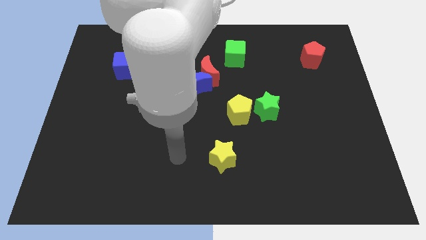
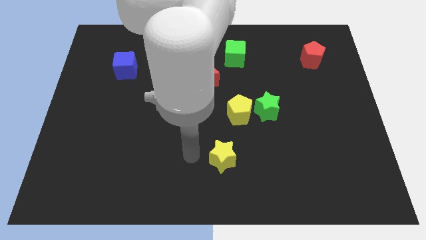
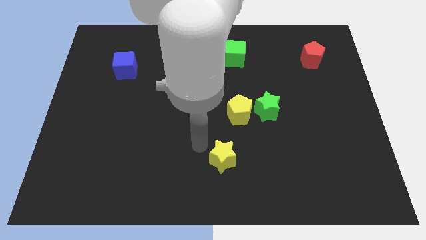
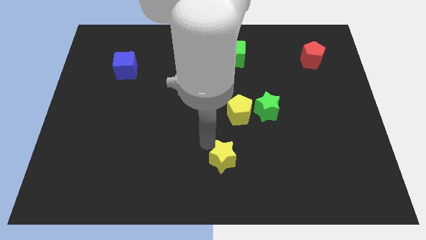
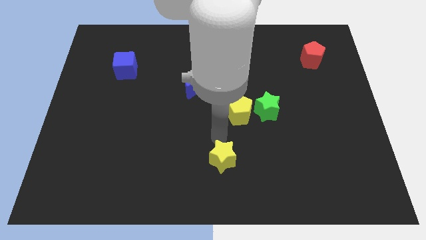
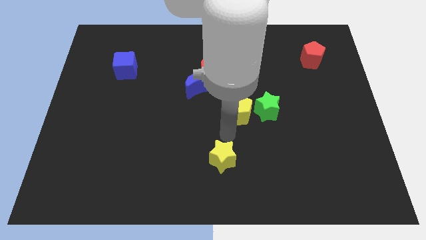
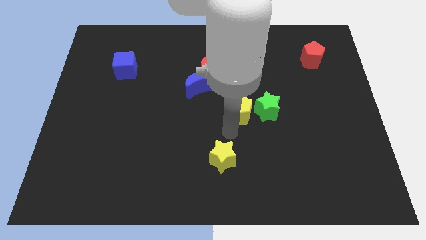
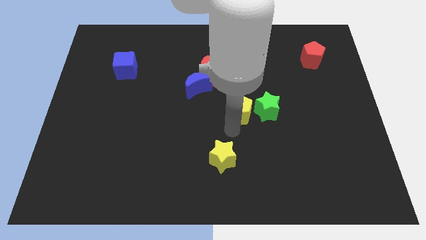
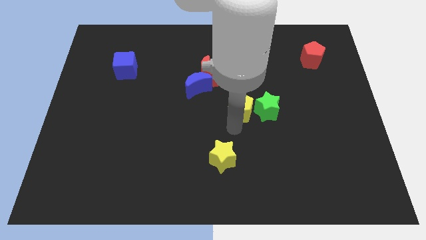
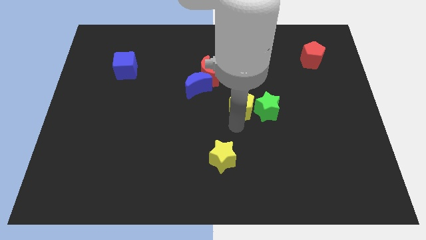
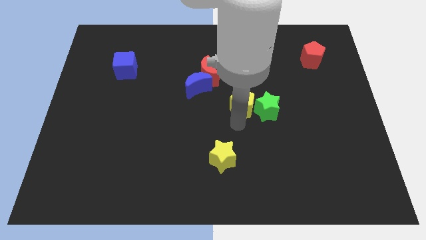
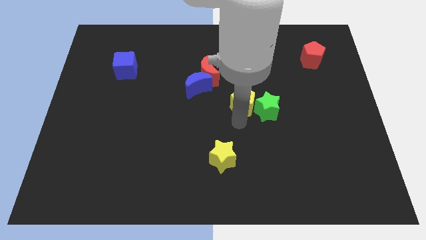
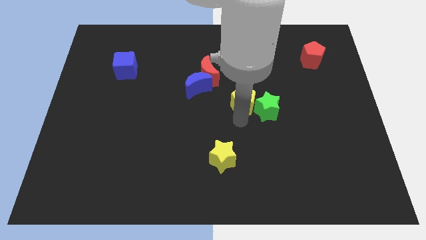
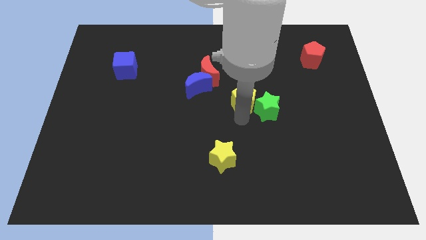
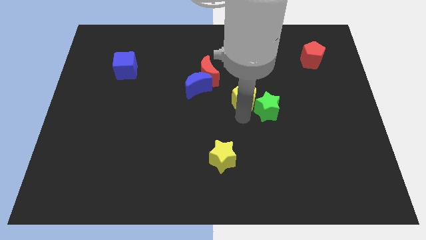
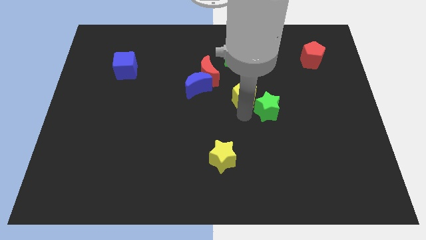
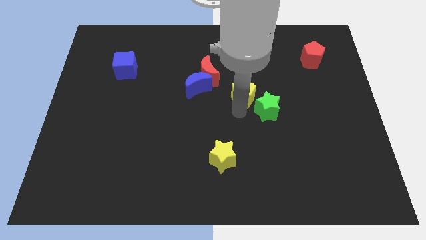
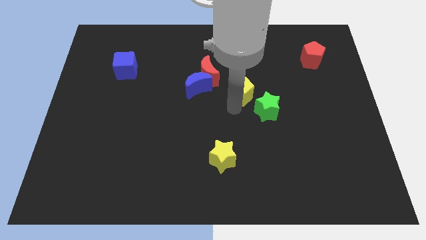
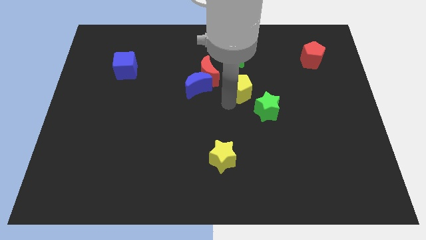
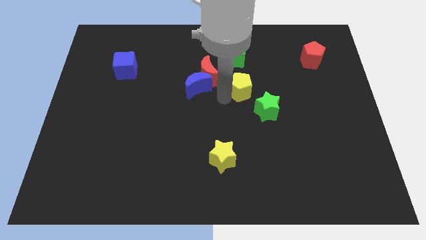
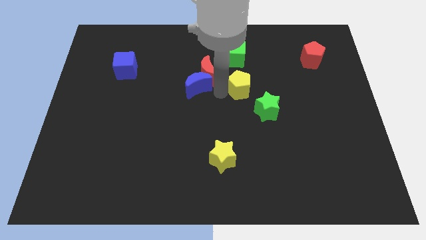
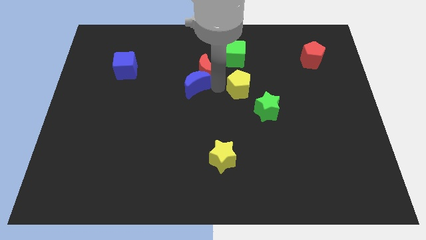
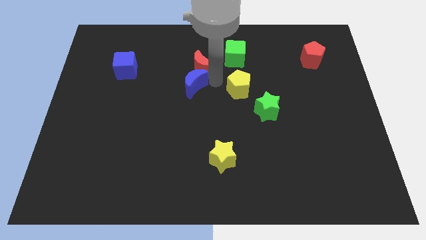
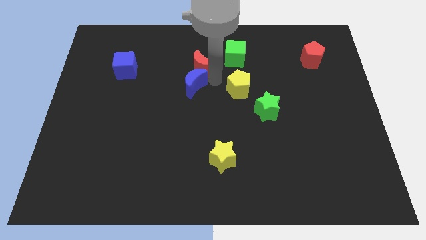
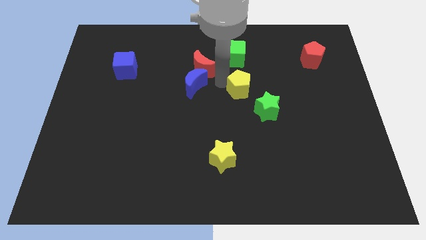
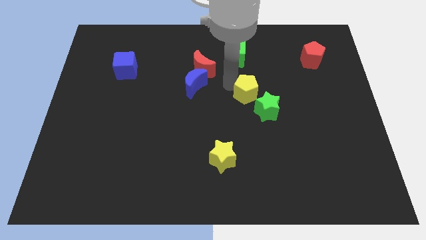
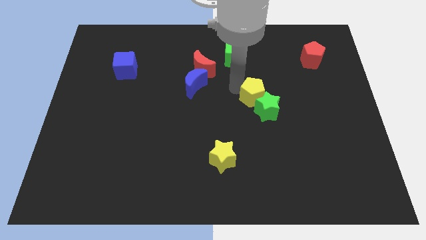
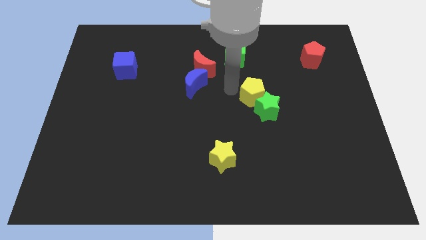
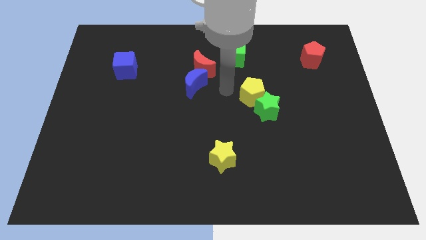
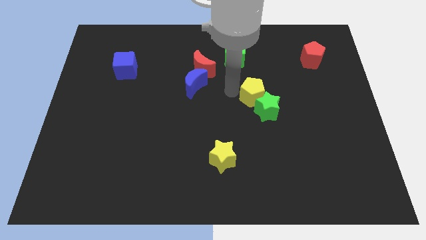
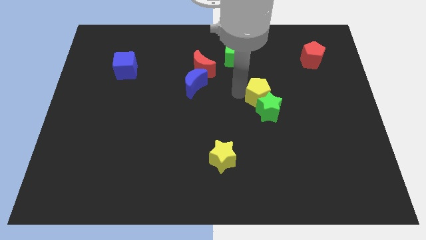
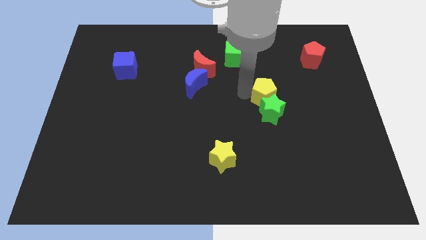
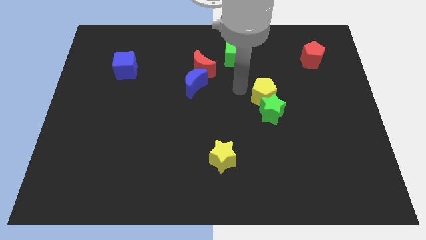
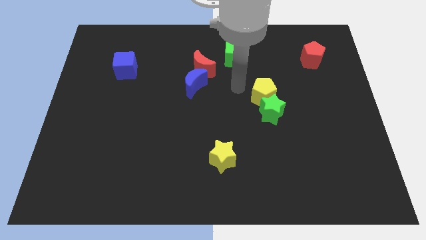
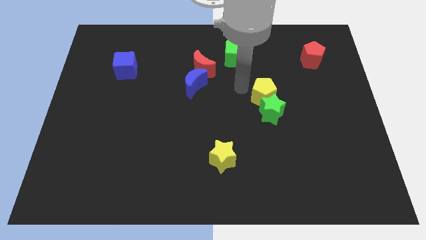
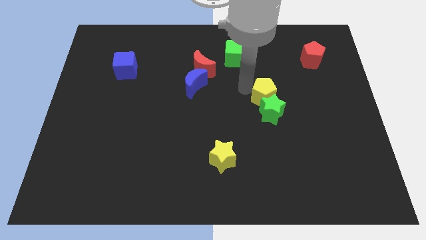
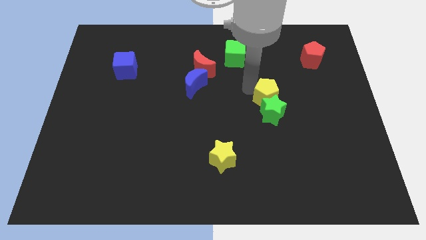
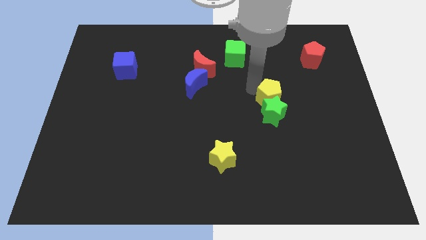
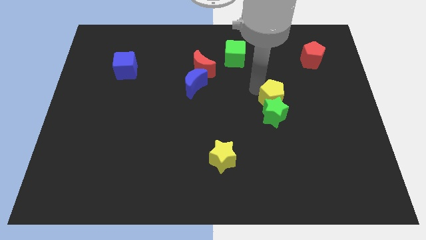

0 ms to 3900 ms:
slide the yellow pentagon a little bit right

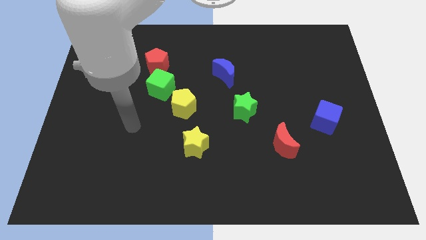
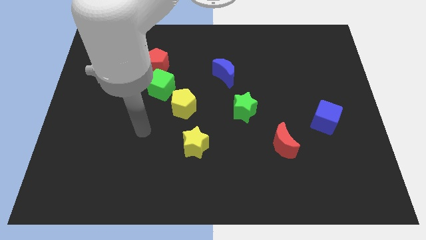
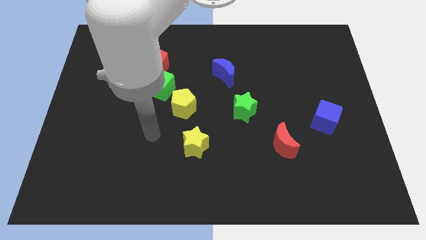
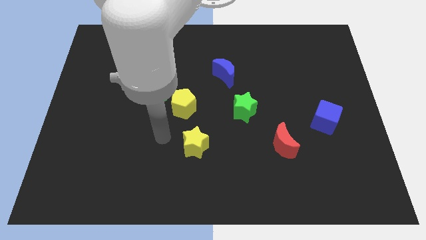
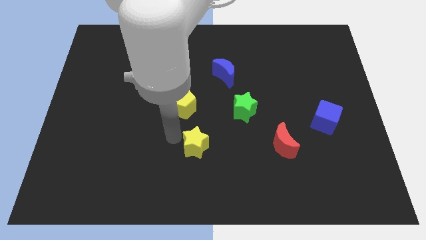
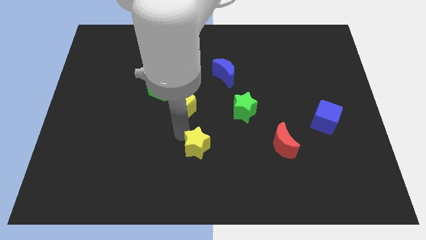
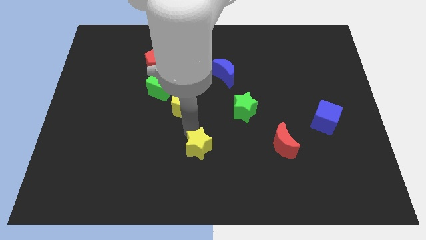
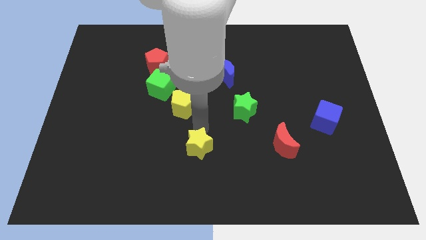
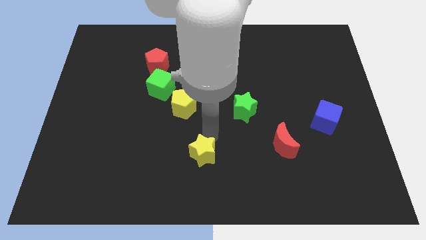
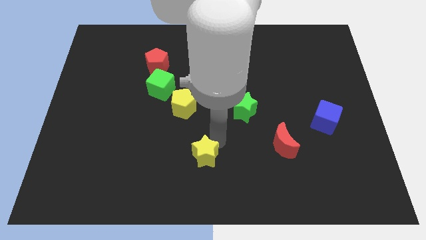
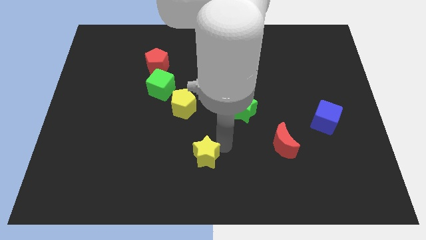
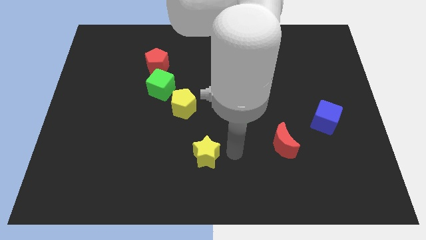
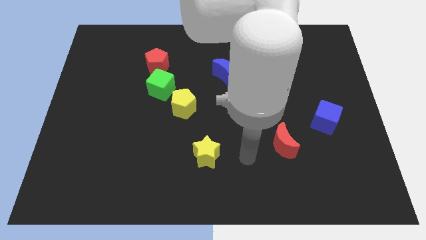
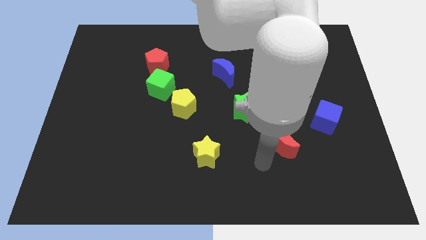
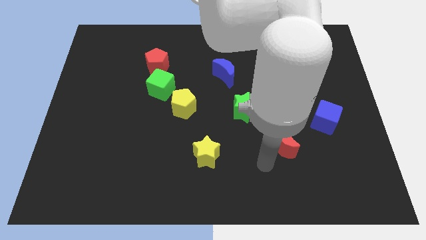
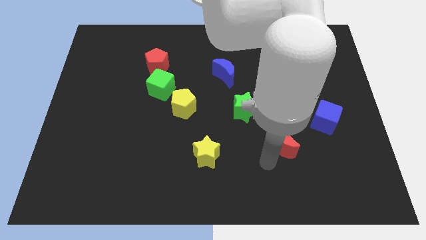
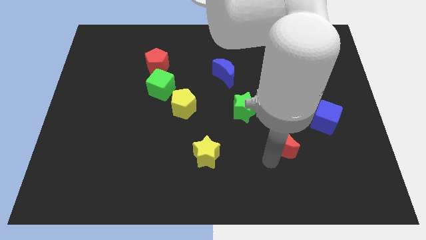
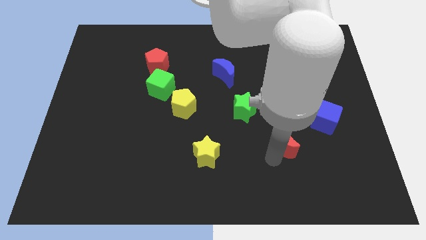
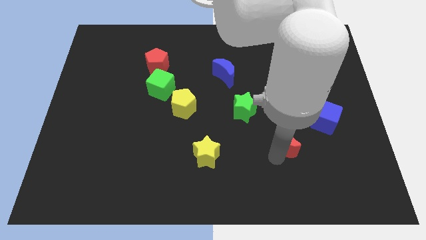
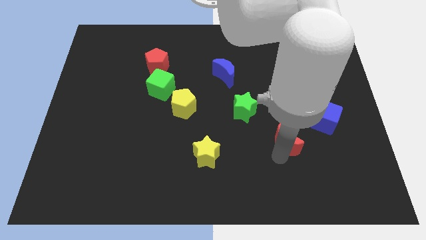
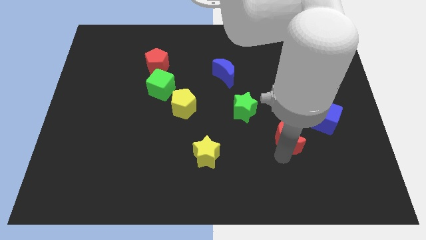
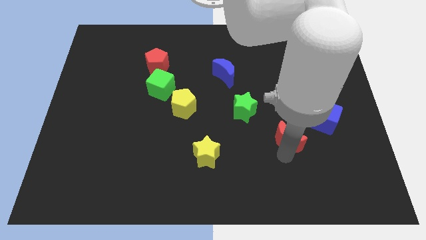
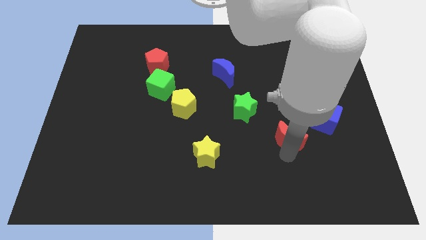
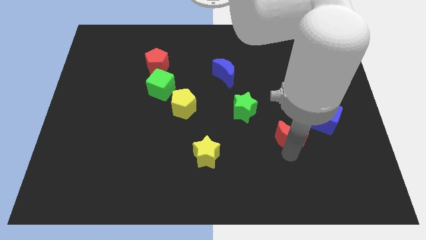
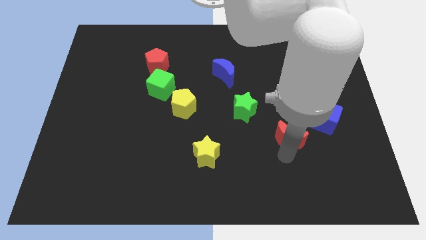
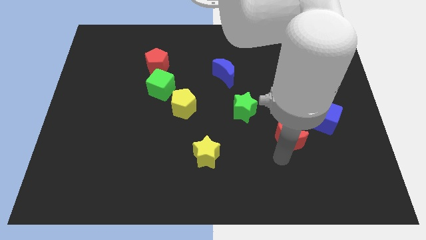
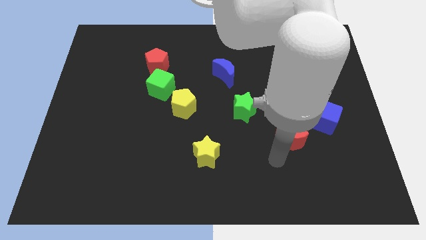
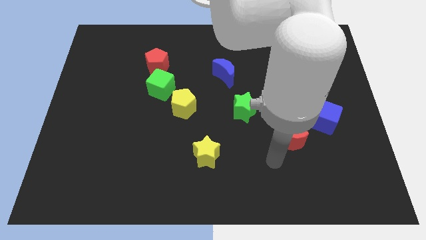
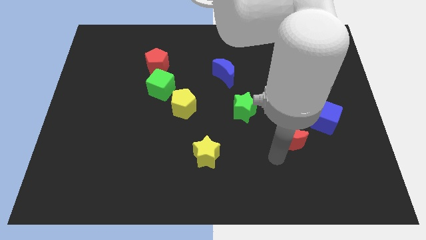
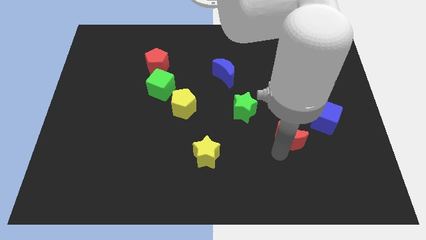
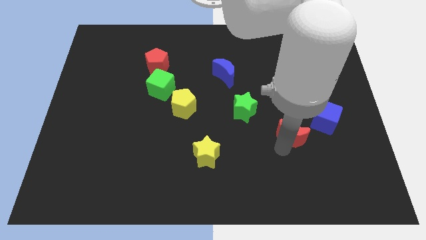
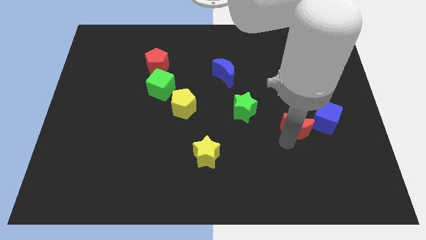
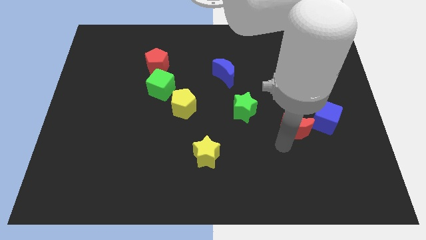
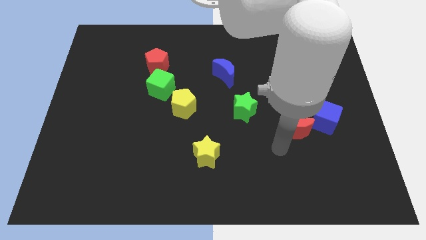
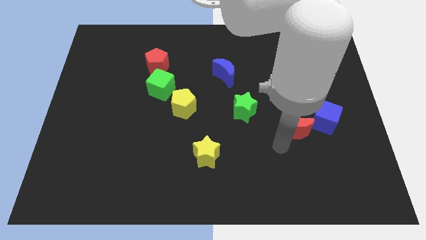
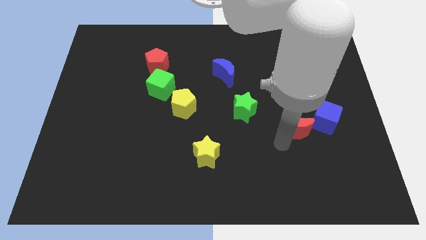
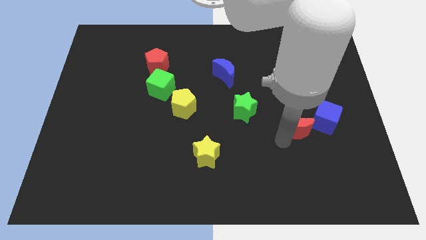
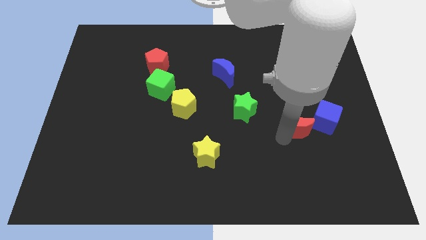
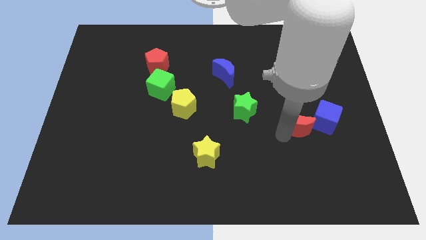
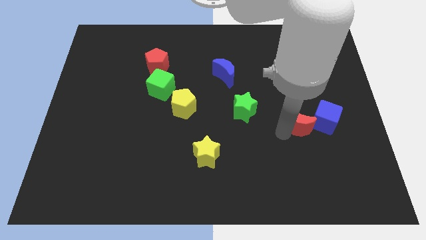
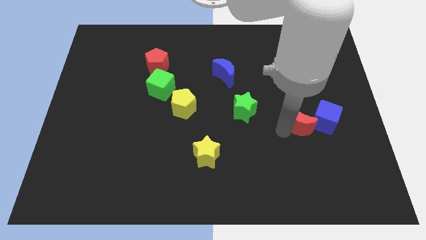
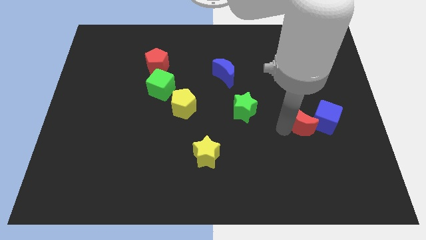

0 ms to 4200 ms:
push the red moon a little diagonally upwards and to the right
